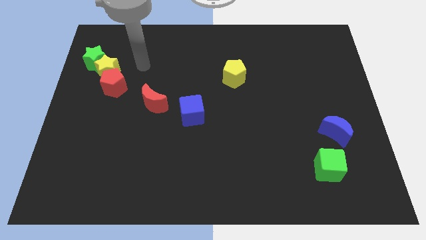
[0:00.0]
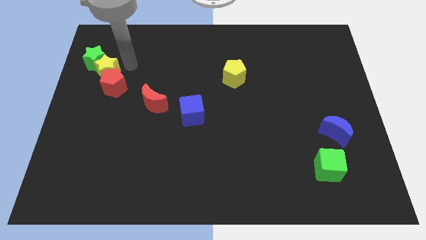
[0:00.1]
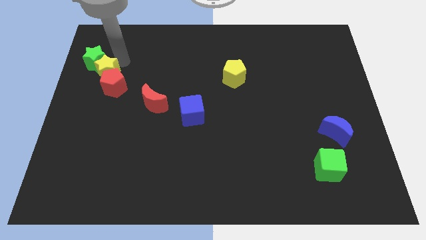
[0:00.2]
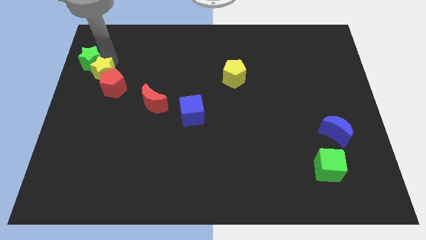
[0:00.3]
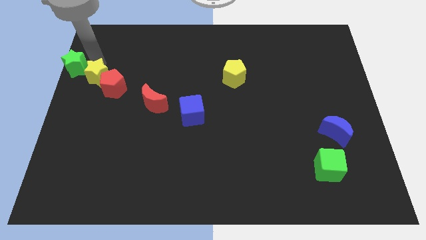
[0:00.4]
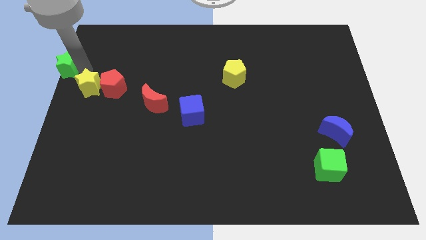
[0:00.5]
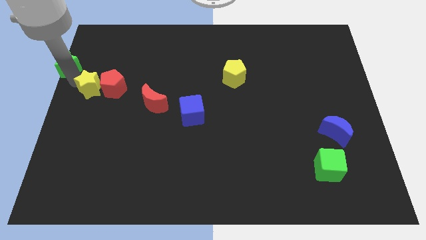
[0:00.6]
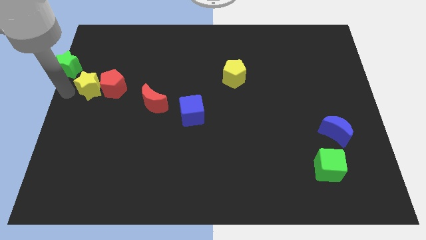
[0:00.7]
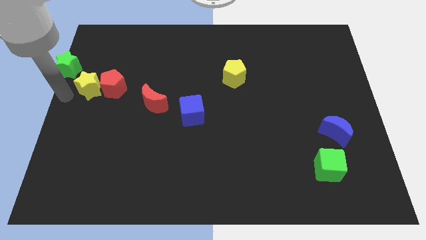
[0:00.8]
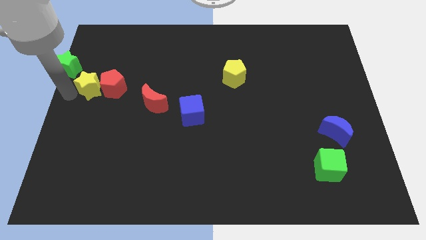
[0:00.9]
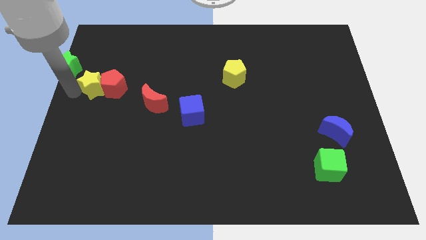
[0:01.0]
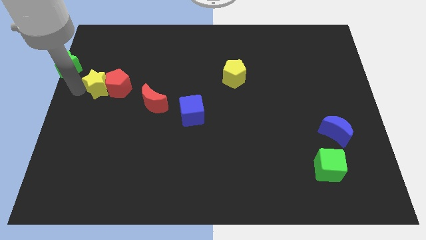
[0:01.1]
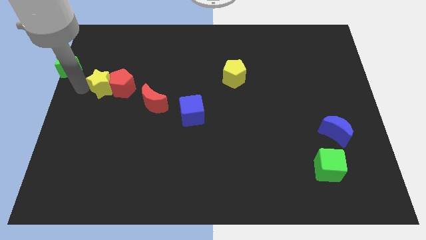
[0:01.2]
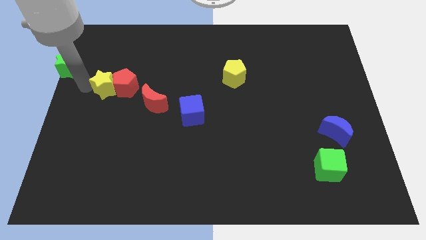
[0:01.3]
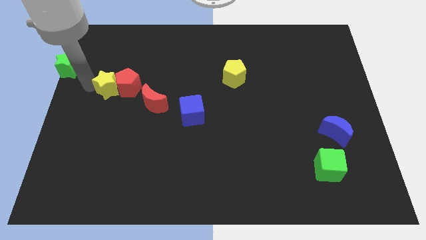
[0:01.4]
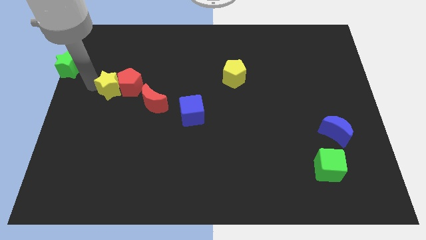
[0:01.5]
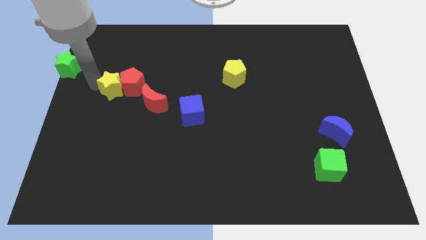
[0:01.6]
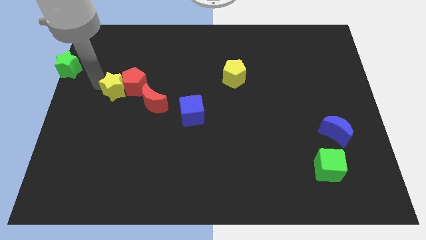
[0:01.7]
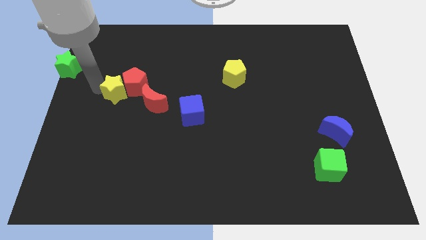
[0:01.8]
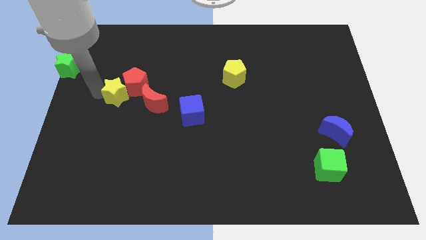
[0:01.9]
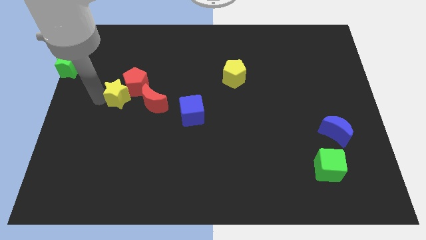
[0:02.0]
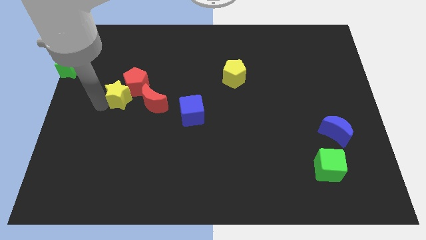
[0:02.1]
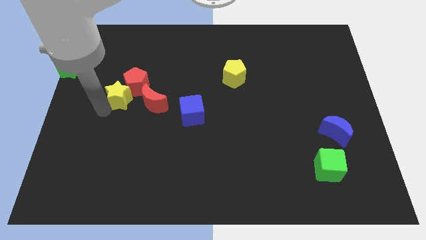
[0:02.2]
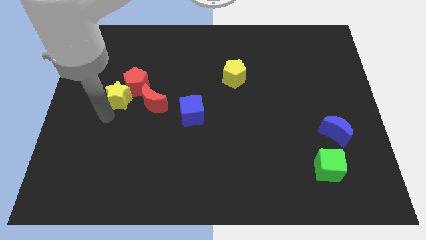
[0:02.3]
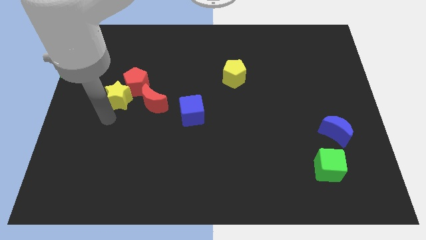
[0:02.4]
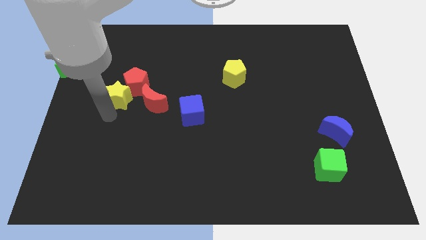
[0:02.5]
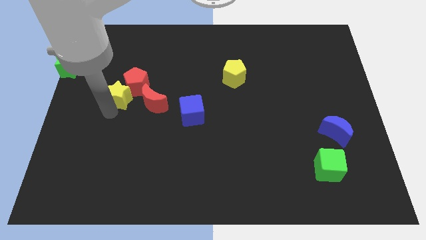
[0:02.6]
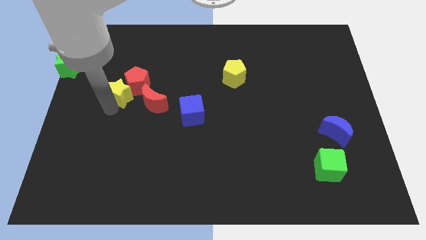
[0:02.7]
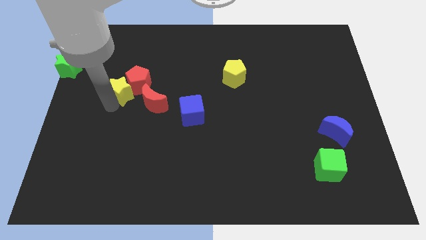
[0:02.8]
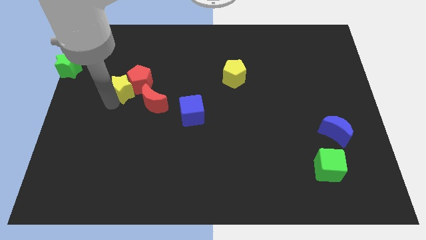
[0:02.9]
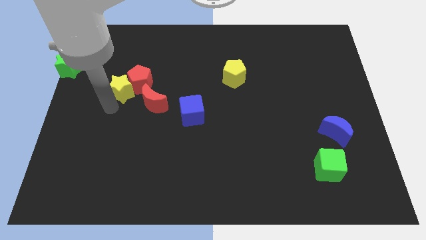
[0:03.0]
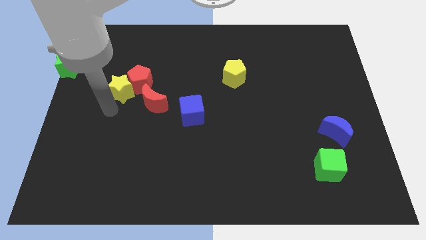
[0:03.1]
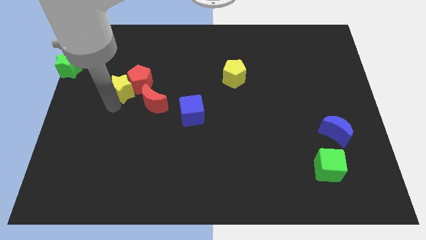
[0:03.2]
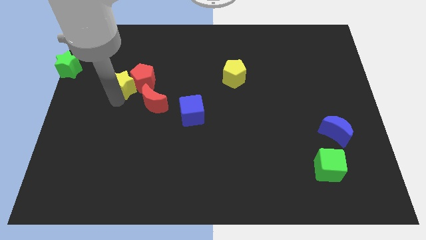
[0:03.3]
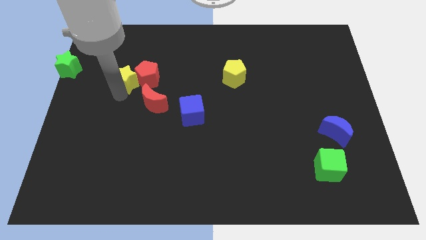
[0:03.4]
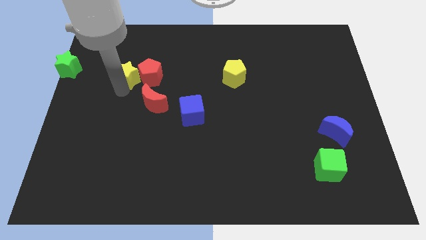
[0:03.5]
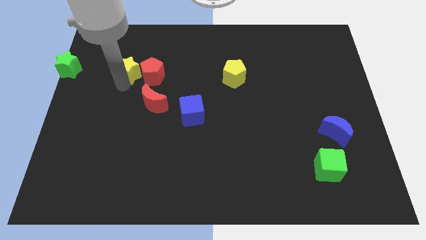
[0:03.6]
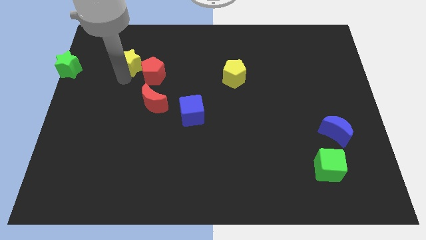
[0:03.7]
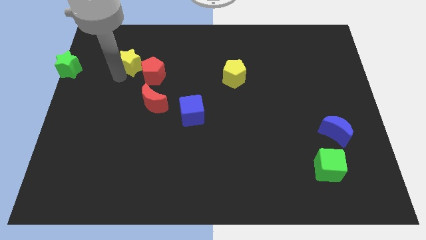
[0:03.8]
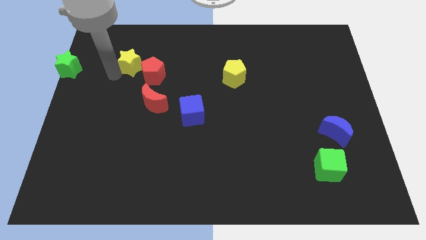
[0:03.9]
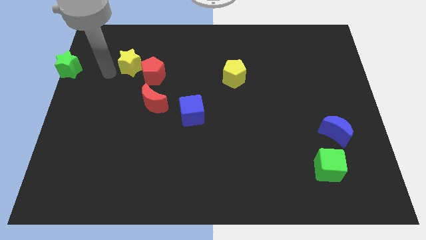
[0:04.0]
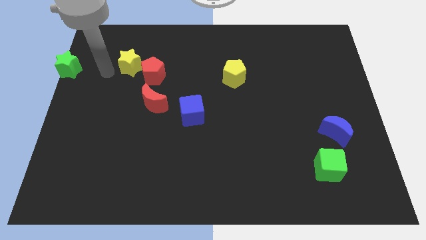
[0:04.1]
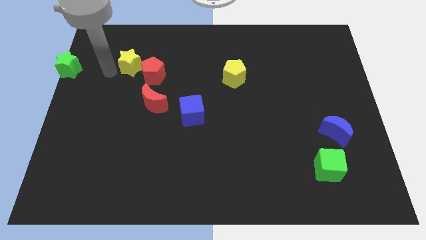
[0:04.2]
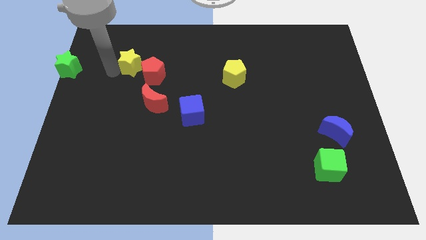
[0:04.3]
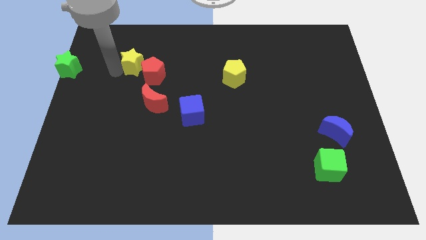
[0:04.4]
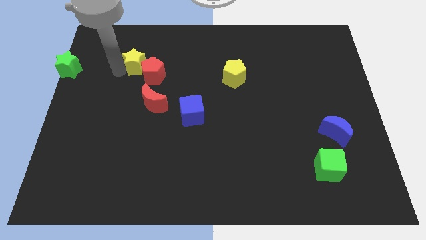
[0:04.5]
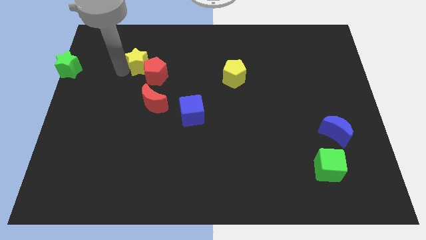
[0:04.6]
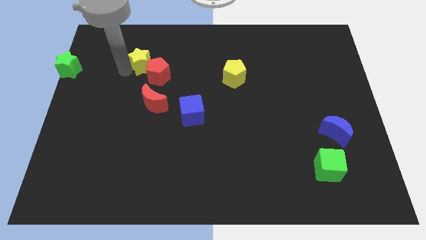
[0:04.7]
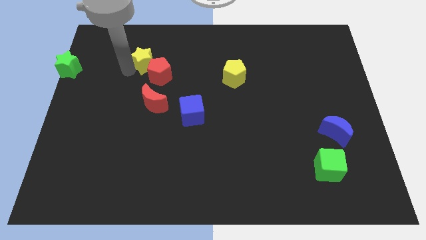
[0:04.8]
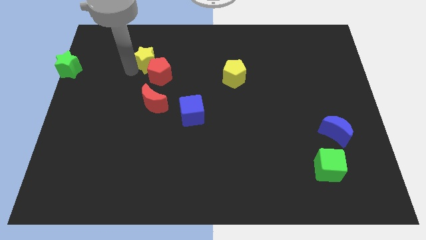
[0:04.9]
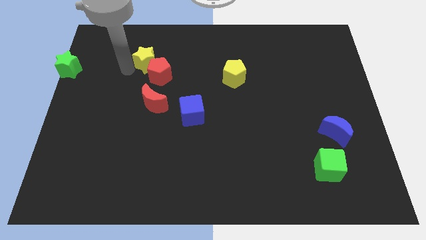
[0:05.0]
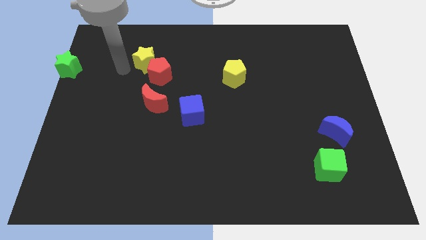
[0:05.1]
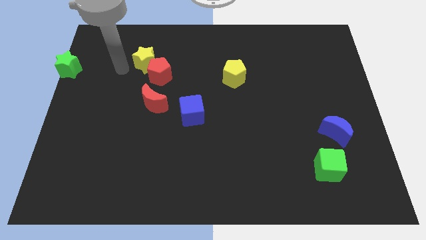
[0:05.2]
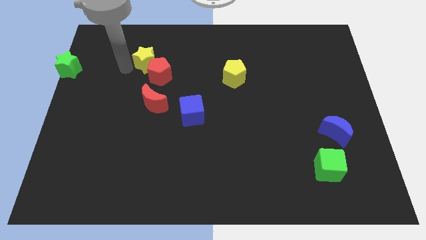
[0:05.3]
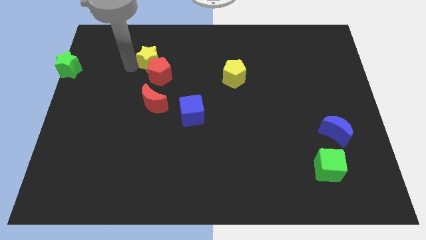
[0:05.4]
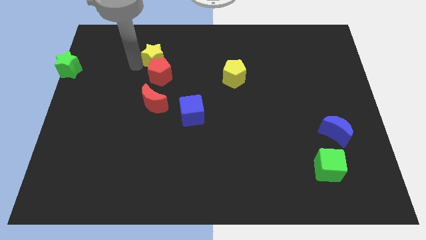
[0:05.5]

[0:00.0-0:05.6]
separate the yellow star from the red pentagon and green star

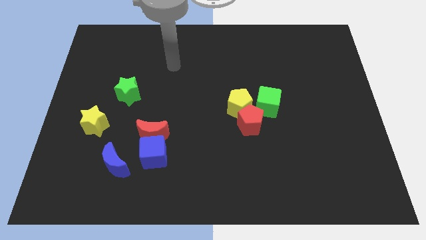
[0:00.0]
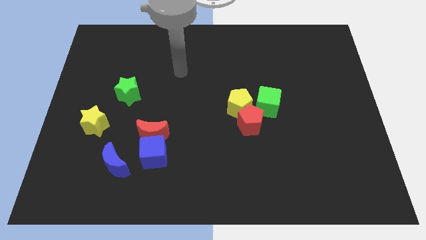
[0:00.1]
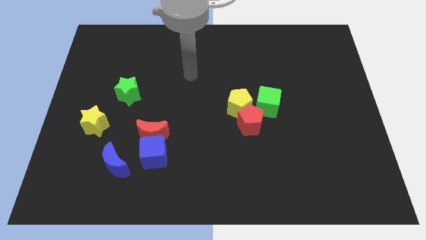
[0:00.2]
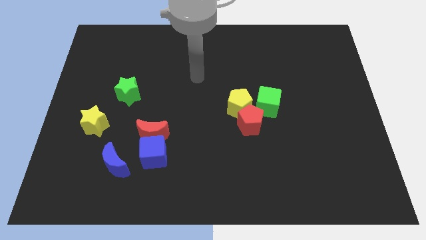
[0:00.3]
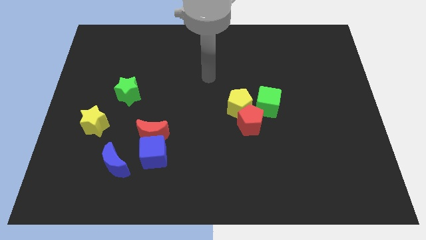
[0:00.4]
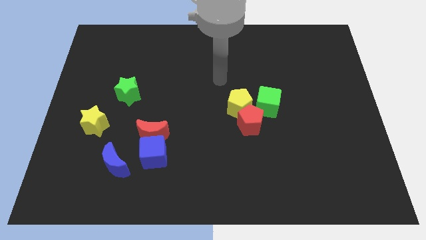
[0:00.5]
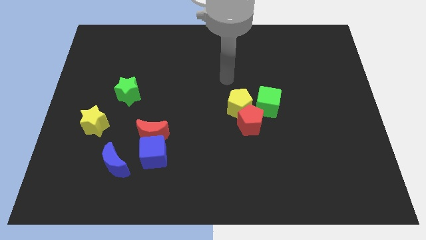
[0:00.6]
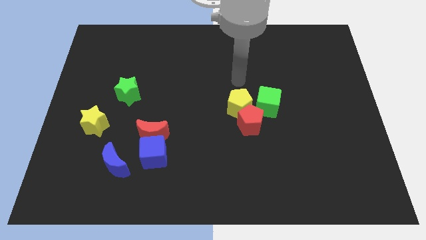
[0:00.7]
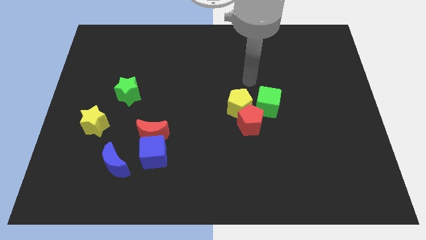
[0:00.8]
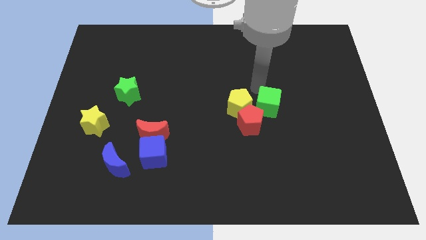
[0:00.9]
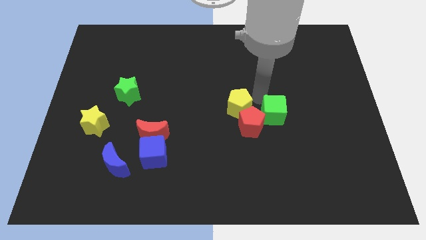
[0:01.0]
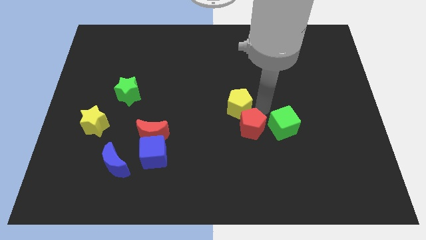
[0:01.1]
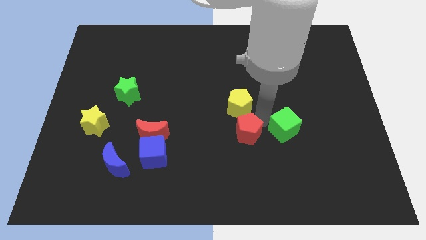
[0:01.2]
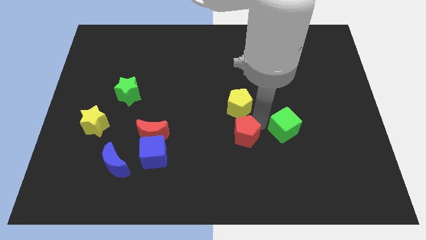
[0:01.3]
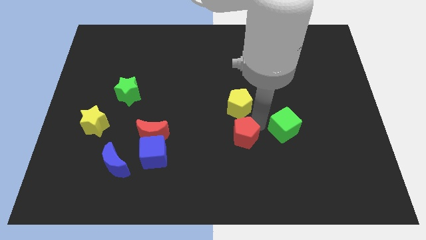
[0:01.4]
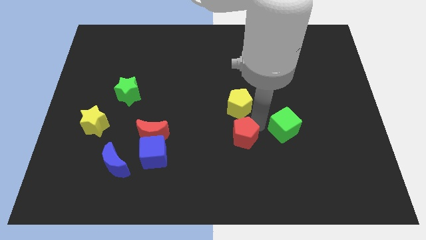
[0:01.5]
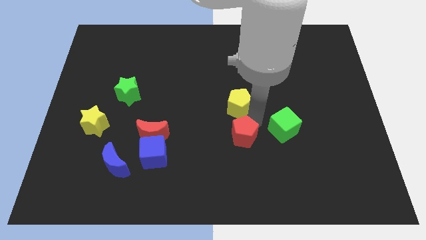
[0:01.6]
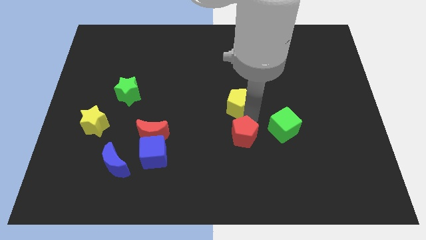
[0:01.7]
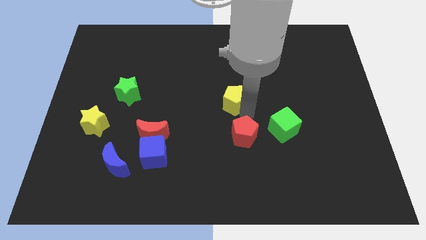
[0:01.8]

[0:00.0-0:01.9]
pull the yellow pentagon apart from the red pentagon and green cube

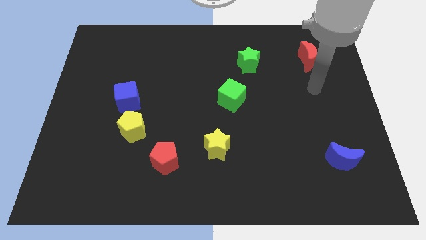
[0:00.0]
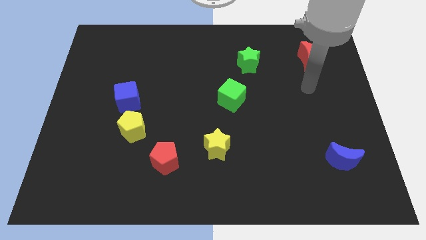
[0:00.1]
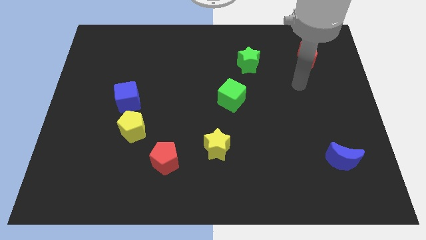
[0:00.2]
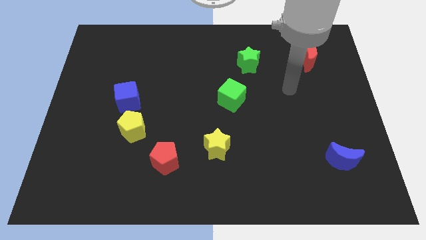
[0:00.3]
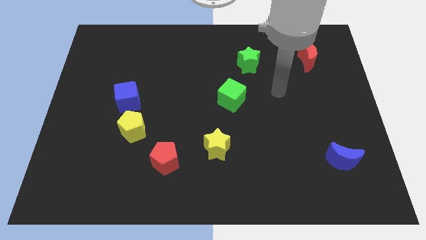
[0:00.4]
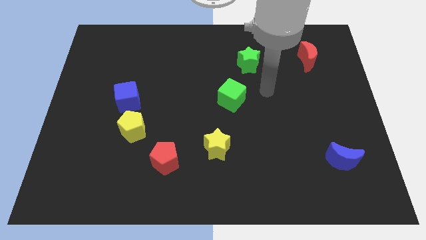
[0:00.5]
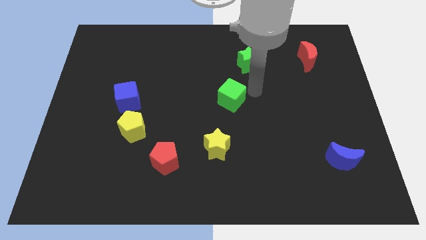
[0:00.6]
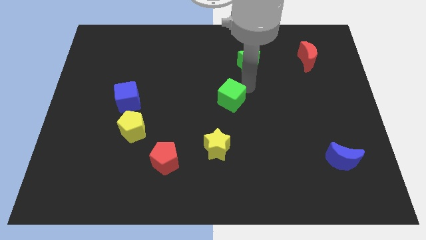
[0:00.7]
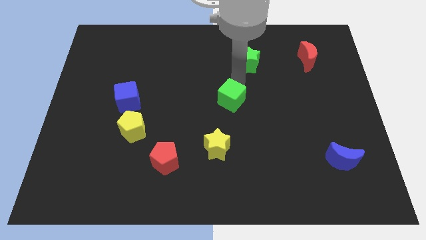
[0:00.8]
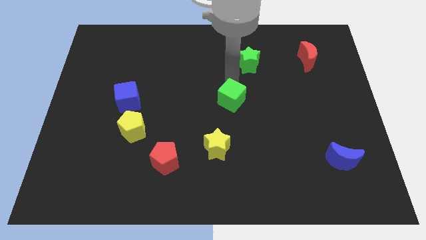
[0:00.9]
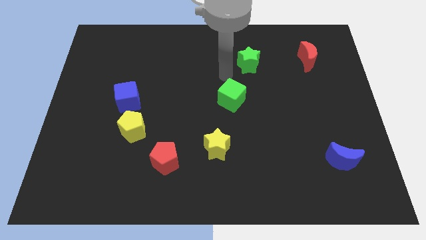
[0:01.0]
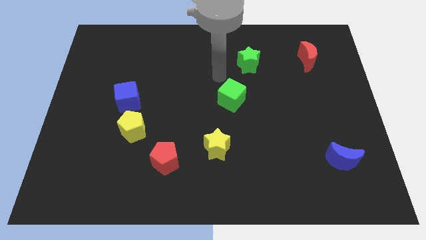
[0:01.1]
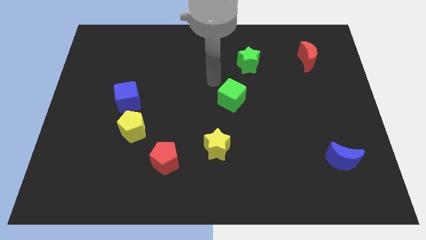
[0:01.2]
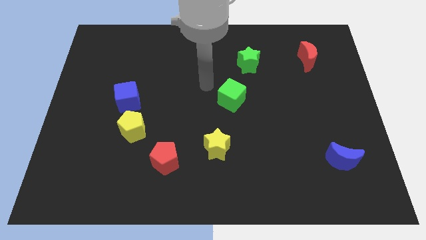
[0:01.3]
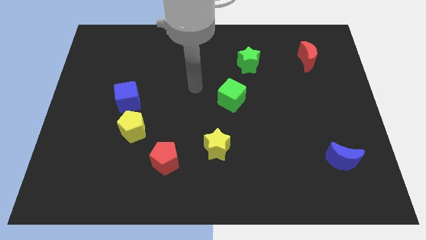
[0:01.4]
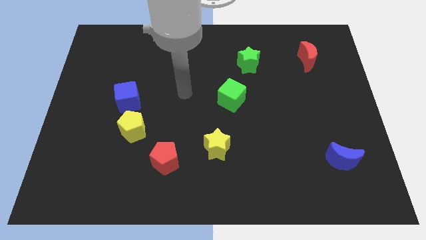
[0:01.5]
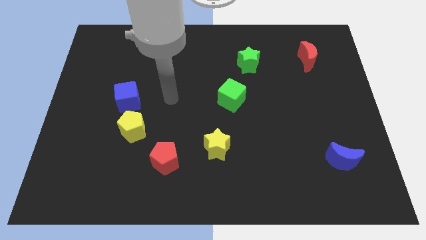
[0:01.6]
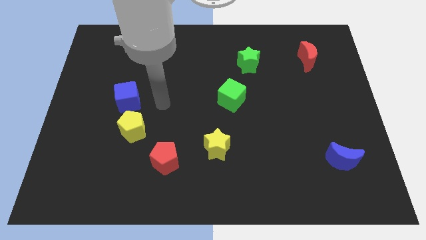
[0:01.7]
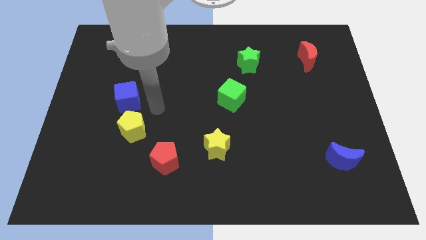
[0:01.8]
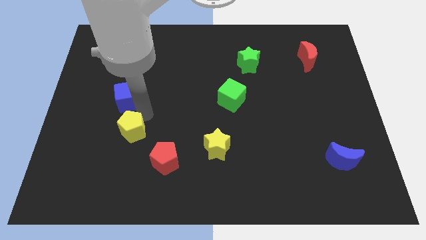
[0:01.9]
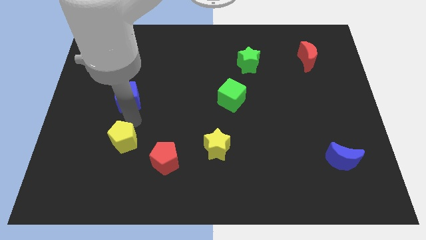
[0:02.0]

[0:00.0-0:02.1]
move the blue cube away from the yellow pentagon
